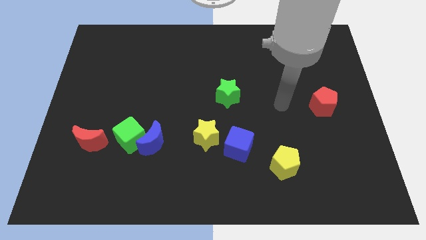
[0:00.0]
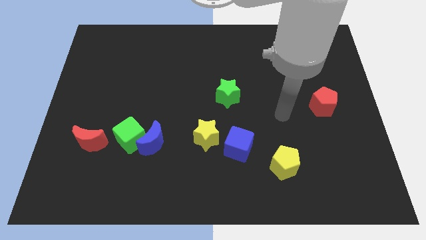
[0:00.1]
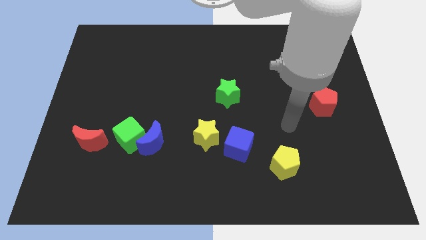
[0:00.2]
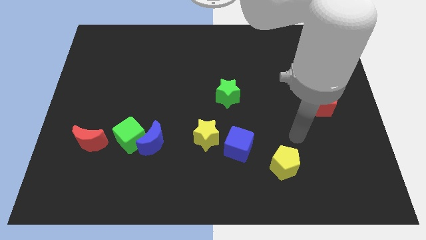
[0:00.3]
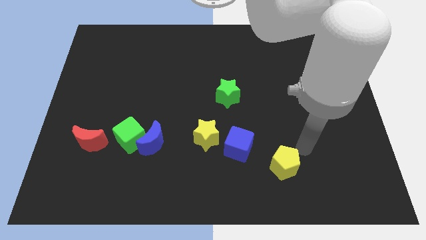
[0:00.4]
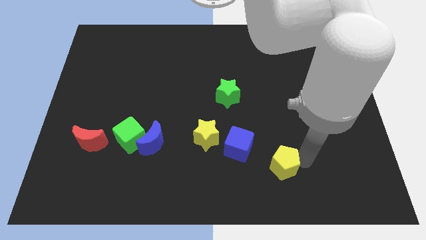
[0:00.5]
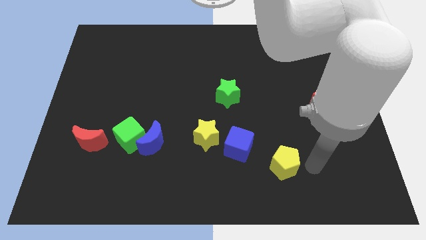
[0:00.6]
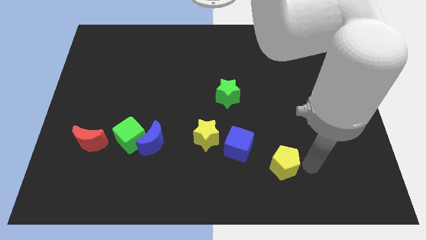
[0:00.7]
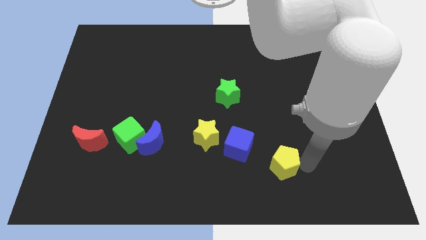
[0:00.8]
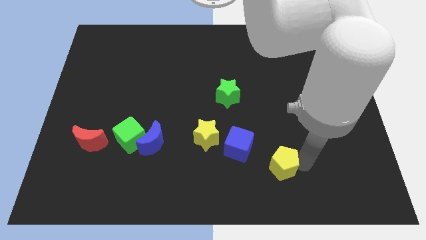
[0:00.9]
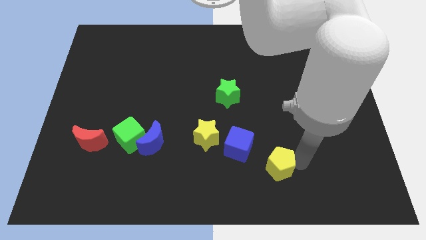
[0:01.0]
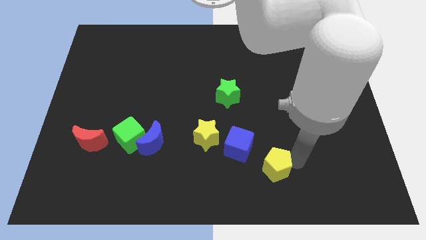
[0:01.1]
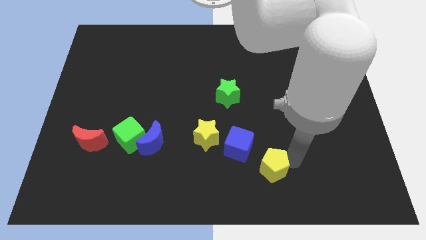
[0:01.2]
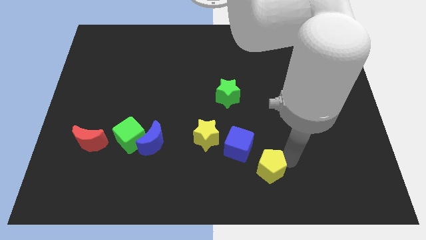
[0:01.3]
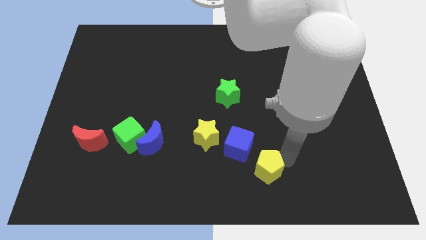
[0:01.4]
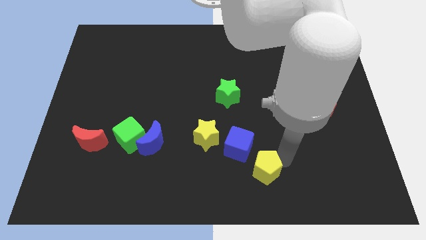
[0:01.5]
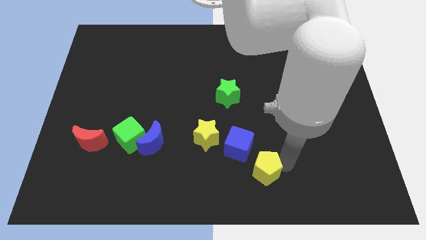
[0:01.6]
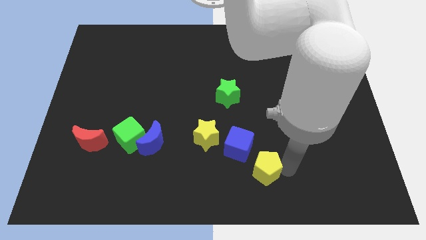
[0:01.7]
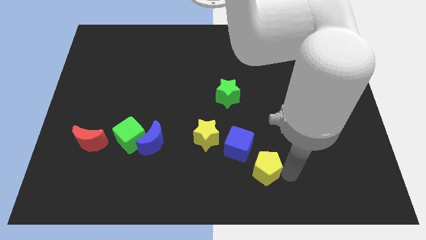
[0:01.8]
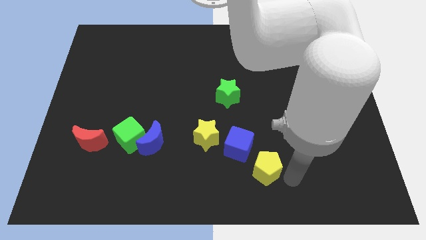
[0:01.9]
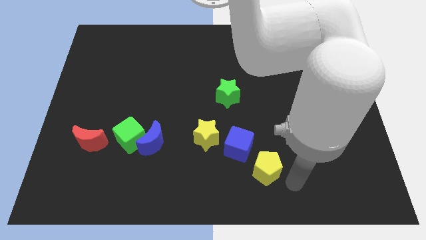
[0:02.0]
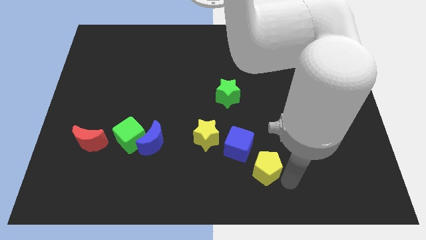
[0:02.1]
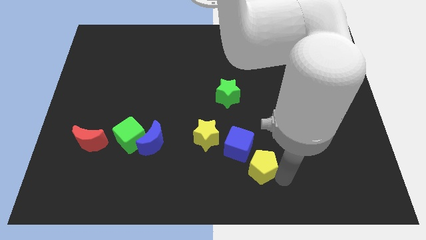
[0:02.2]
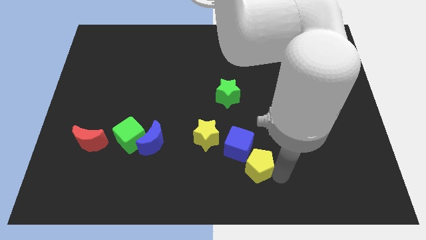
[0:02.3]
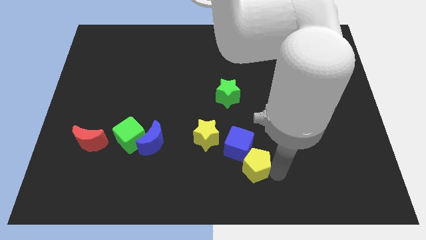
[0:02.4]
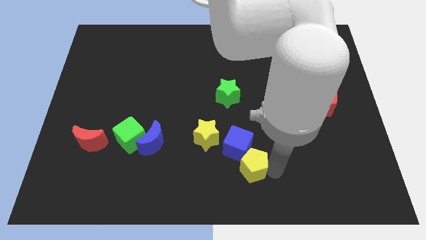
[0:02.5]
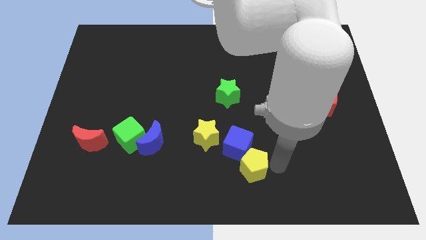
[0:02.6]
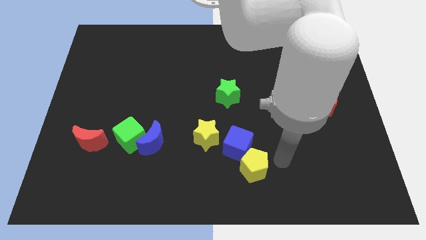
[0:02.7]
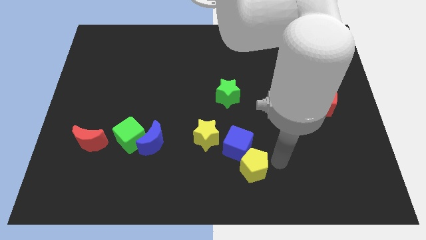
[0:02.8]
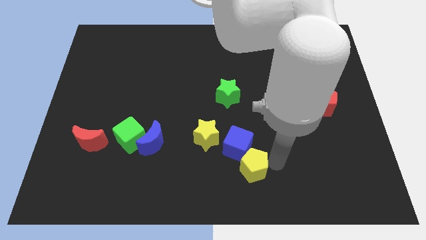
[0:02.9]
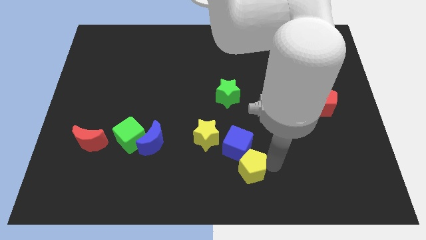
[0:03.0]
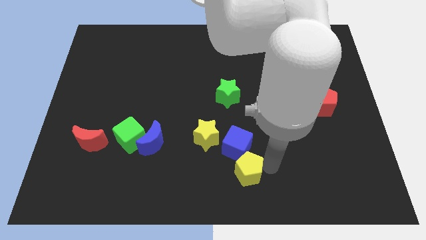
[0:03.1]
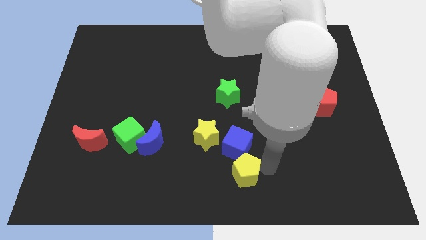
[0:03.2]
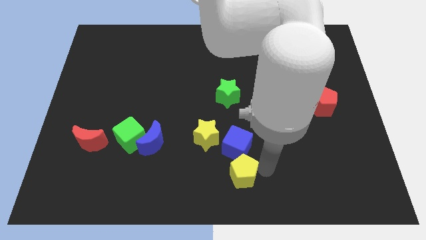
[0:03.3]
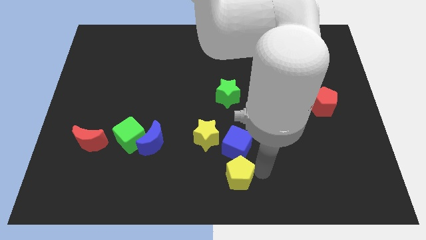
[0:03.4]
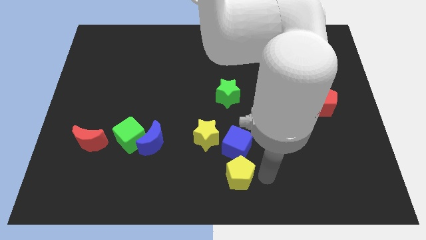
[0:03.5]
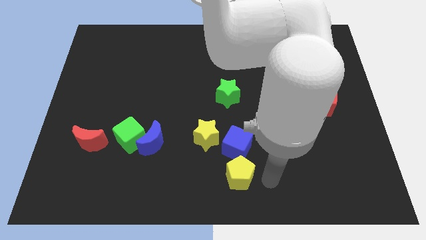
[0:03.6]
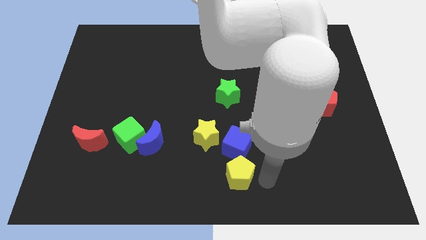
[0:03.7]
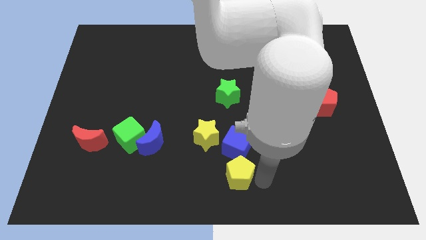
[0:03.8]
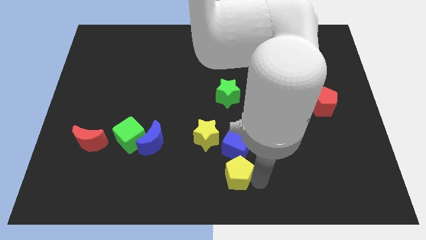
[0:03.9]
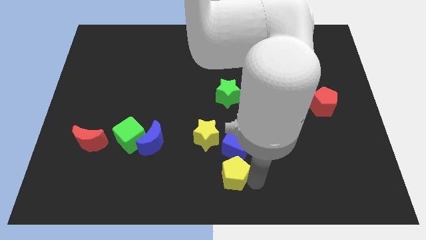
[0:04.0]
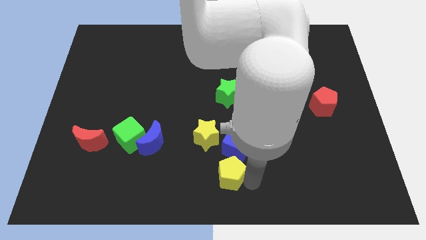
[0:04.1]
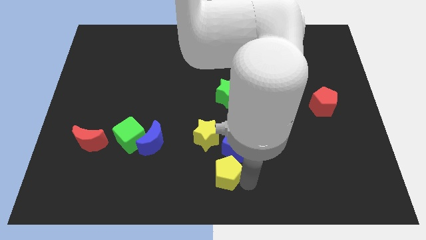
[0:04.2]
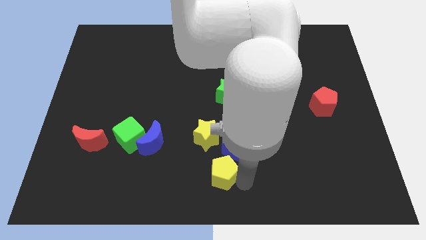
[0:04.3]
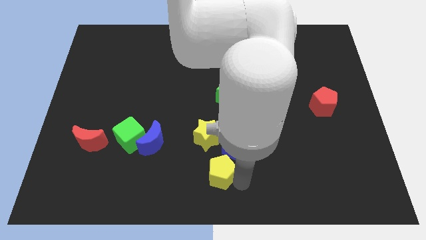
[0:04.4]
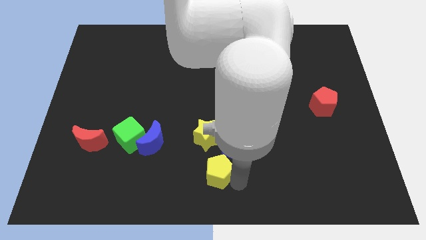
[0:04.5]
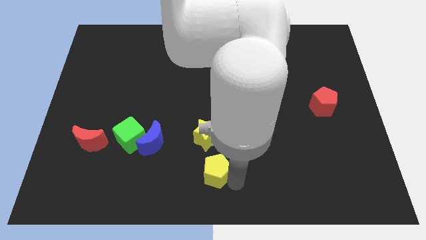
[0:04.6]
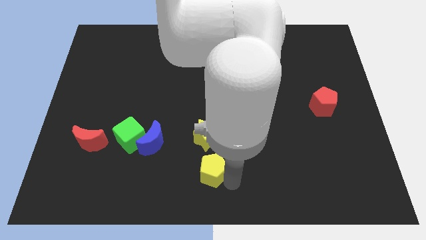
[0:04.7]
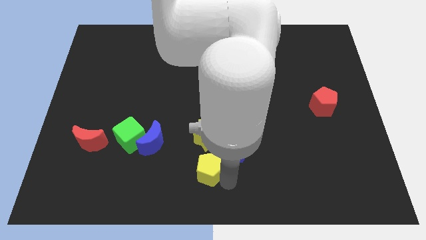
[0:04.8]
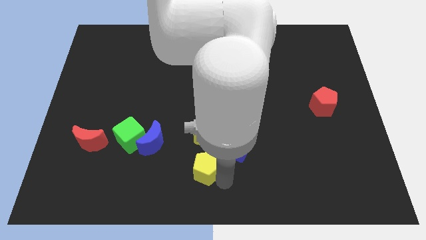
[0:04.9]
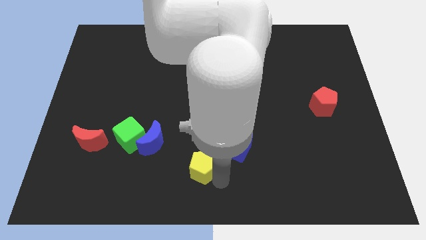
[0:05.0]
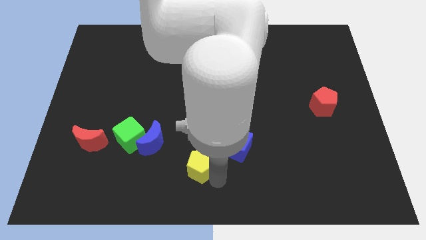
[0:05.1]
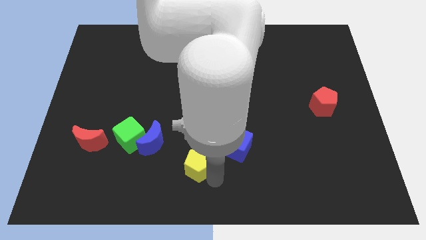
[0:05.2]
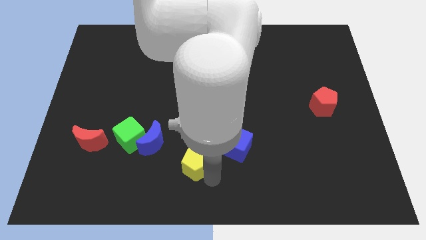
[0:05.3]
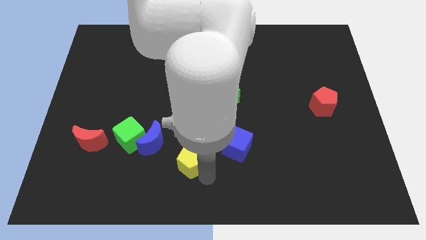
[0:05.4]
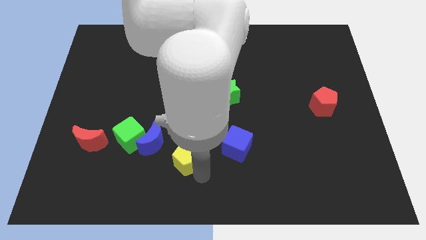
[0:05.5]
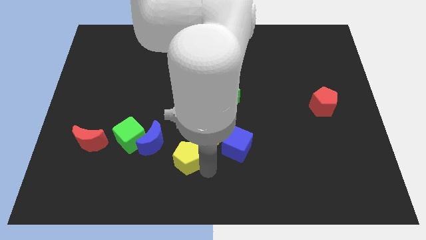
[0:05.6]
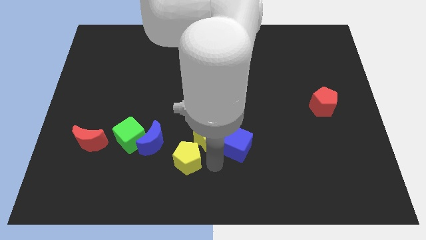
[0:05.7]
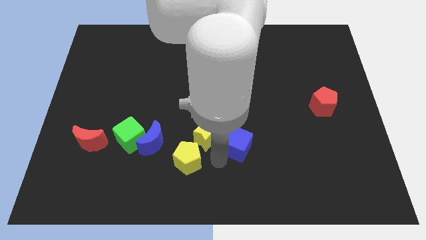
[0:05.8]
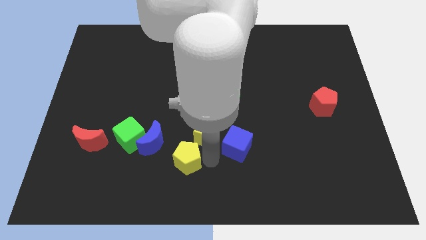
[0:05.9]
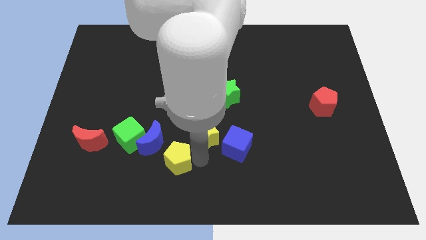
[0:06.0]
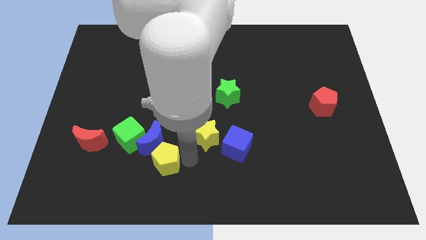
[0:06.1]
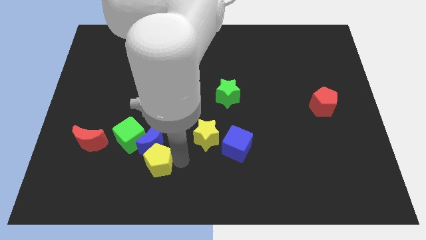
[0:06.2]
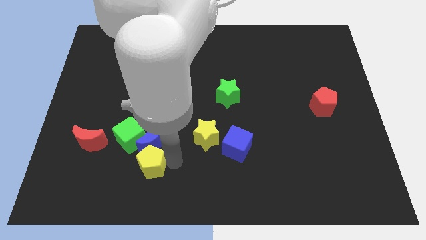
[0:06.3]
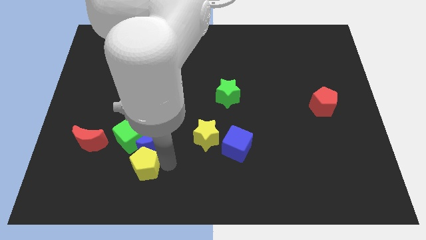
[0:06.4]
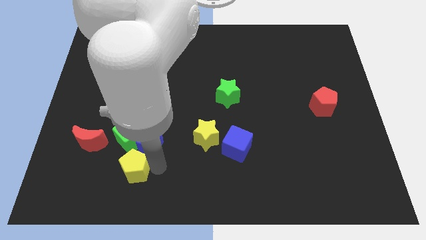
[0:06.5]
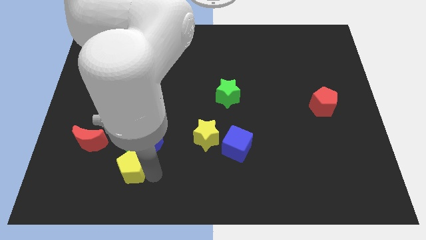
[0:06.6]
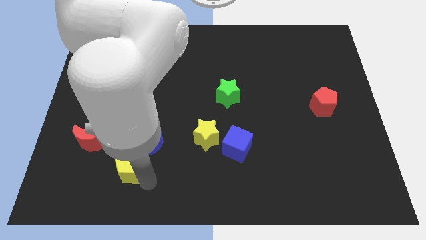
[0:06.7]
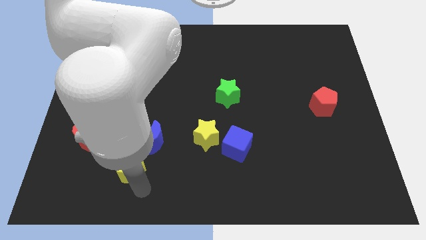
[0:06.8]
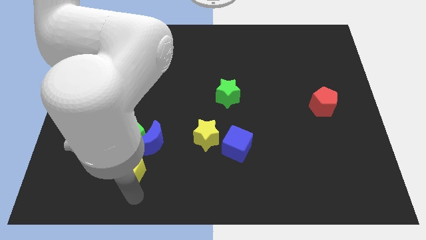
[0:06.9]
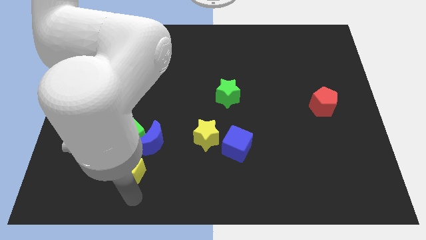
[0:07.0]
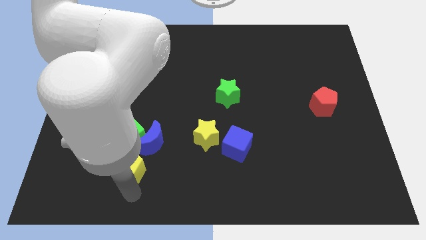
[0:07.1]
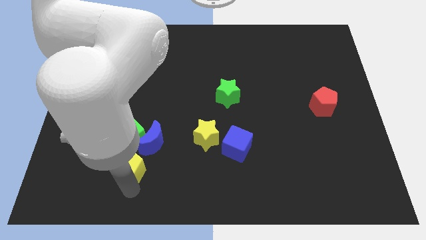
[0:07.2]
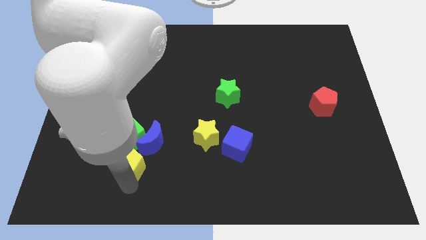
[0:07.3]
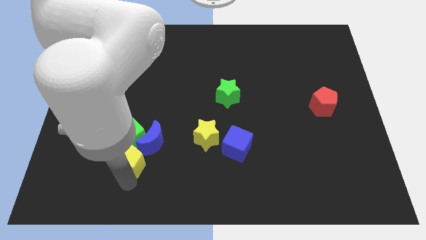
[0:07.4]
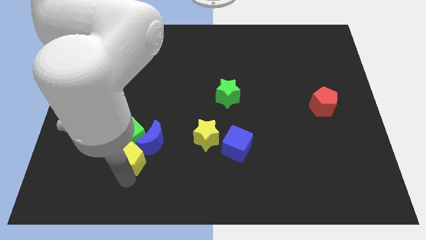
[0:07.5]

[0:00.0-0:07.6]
put the yellow pentagon next to the green cube
